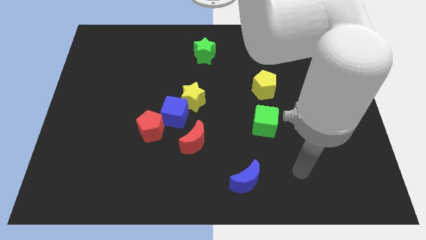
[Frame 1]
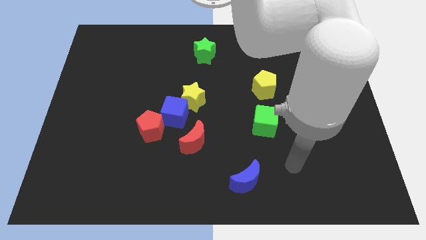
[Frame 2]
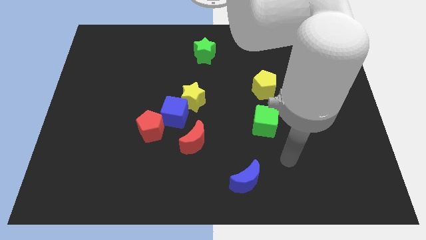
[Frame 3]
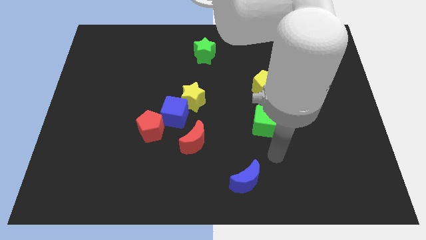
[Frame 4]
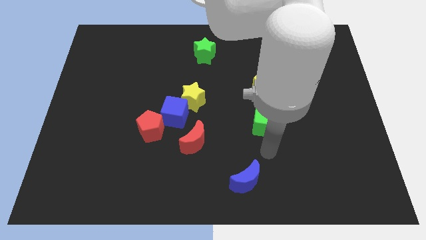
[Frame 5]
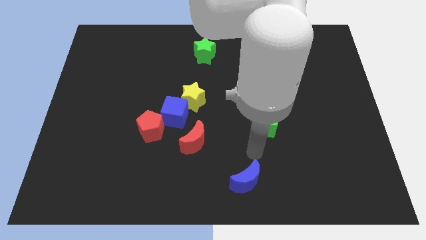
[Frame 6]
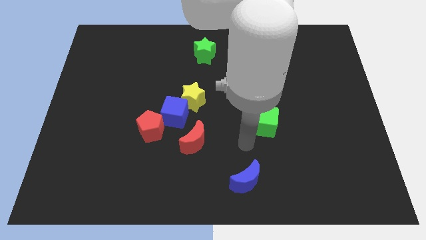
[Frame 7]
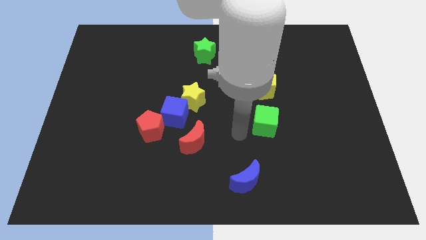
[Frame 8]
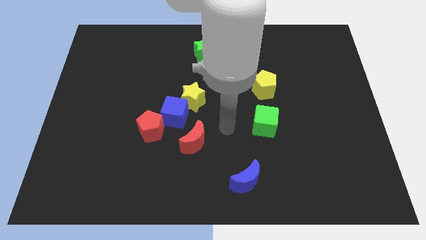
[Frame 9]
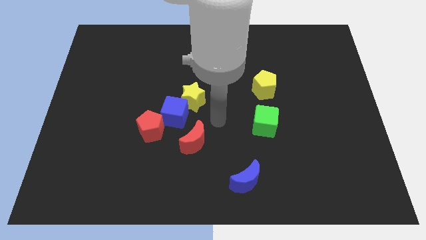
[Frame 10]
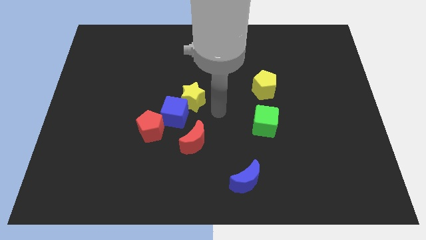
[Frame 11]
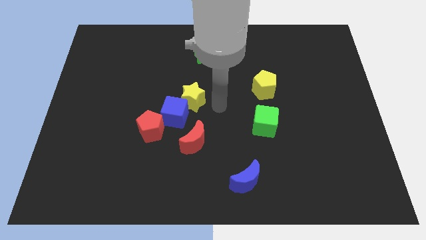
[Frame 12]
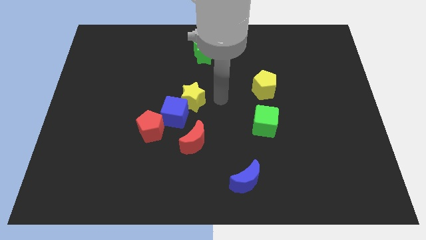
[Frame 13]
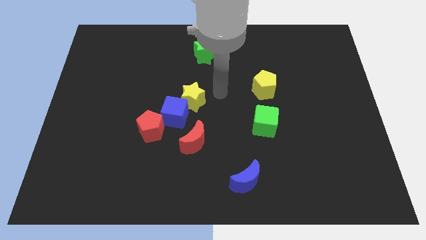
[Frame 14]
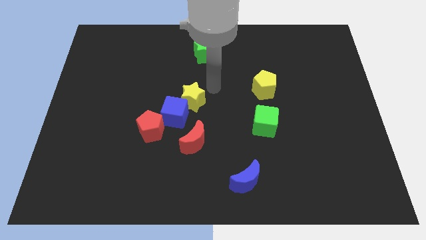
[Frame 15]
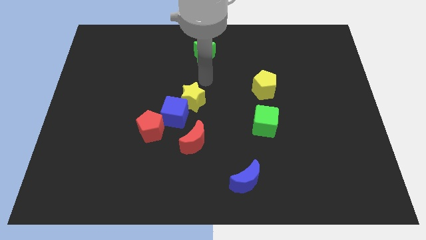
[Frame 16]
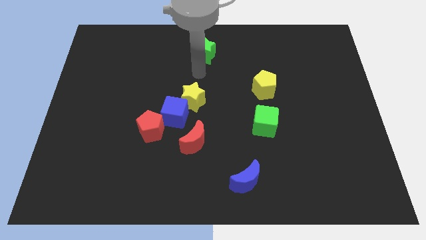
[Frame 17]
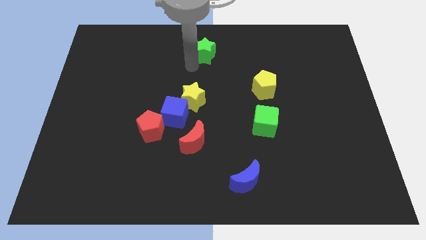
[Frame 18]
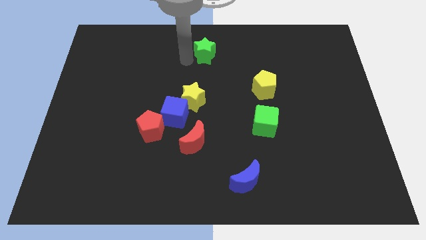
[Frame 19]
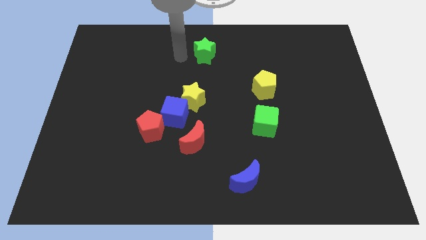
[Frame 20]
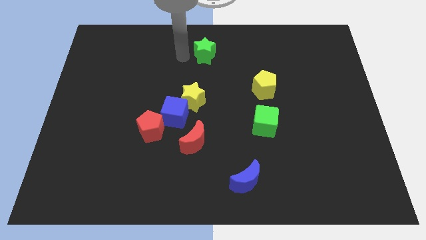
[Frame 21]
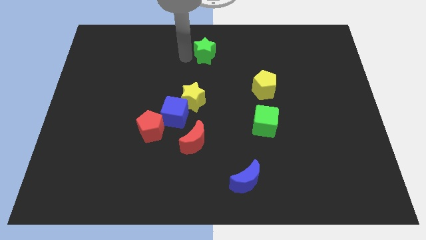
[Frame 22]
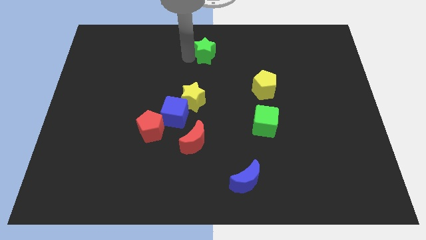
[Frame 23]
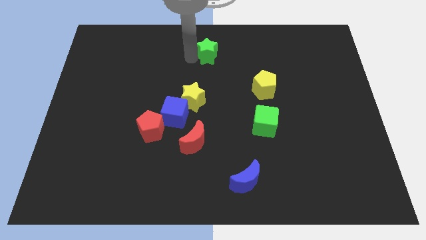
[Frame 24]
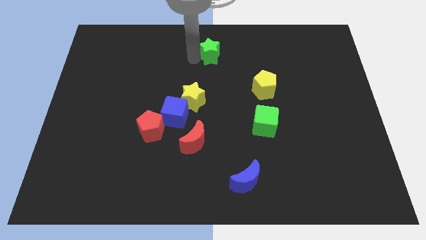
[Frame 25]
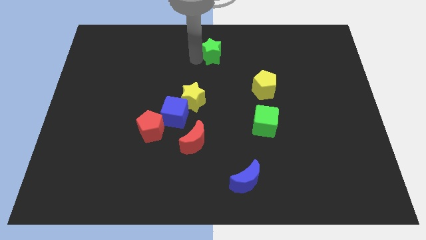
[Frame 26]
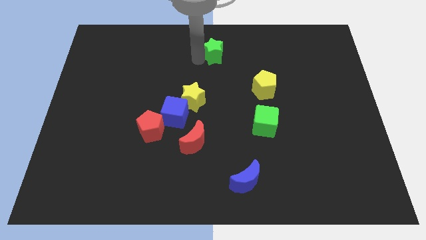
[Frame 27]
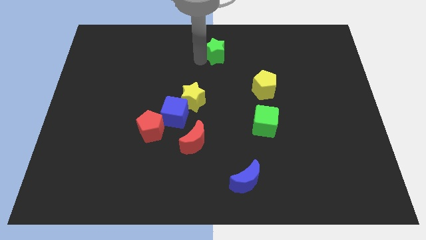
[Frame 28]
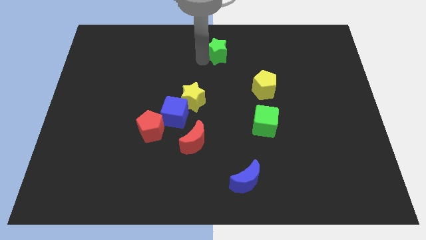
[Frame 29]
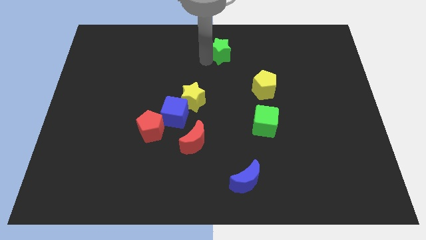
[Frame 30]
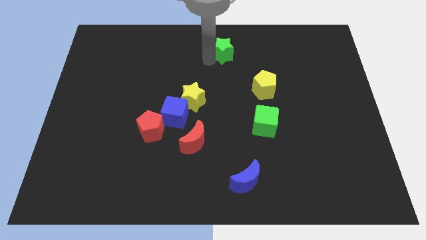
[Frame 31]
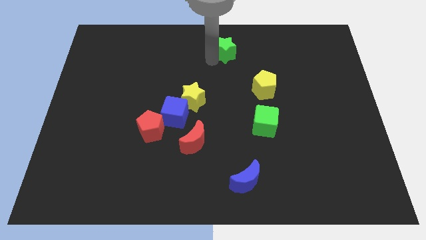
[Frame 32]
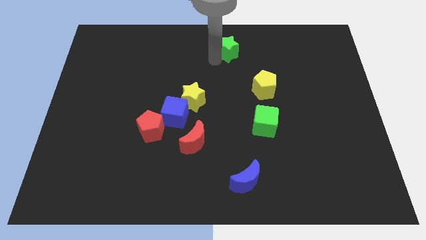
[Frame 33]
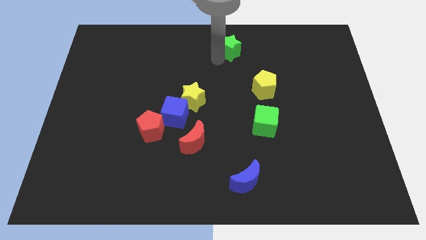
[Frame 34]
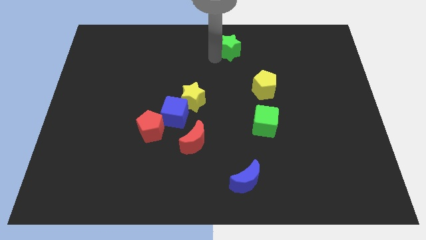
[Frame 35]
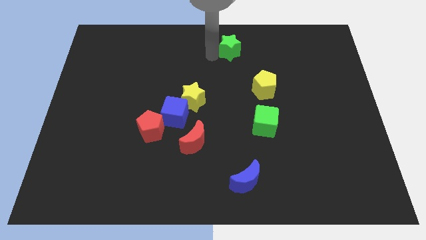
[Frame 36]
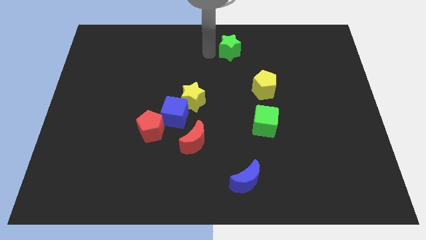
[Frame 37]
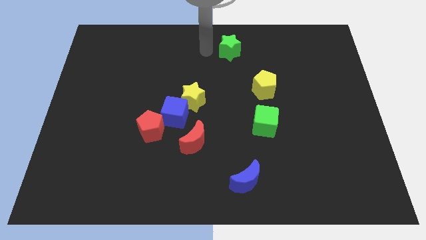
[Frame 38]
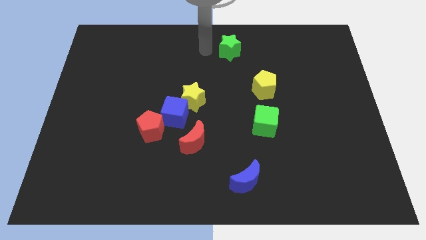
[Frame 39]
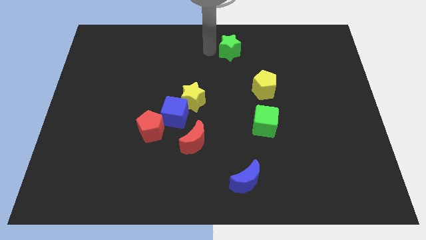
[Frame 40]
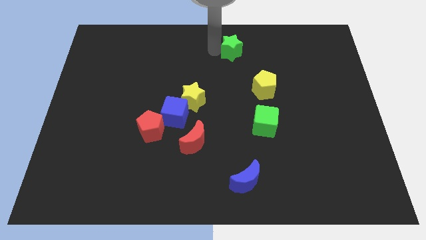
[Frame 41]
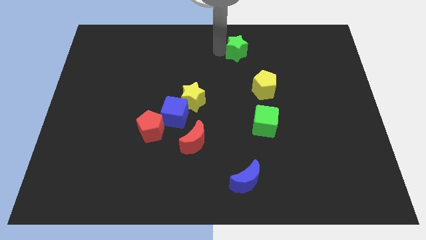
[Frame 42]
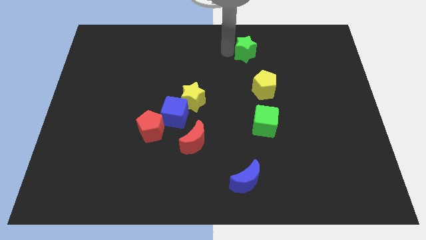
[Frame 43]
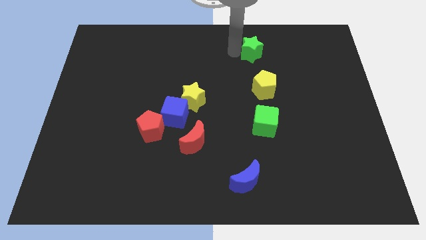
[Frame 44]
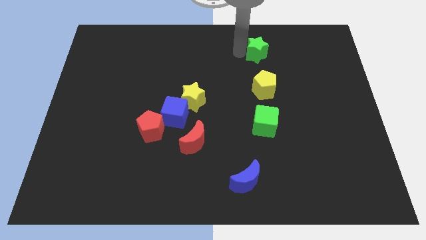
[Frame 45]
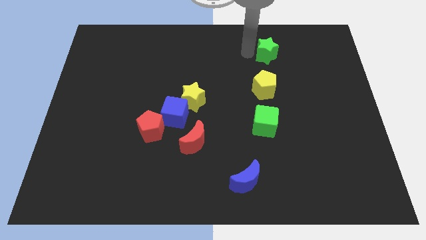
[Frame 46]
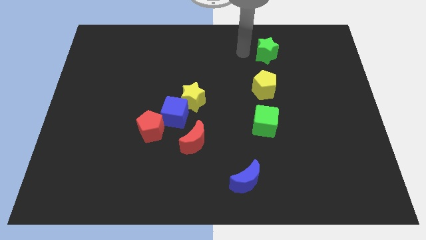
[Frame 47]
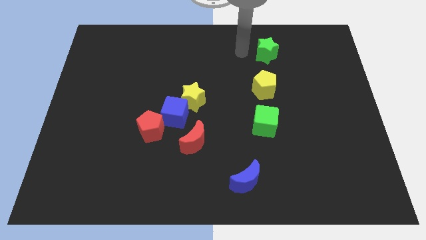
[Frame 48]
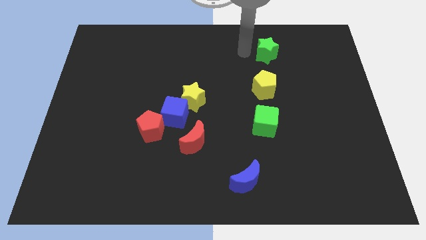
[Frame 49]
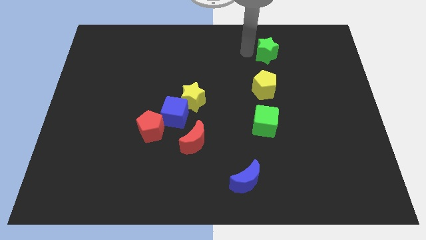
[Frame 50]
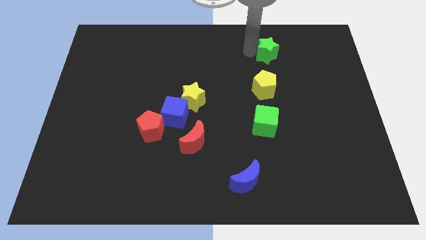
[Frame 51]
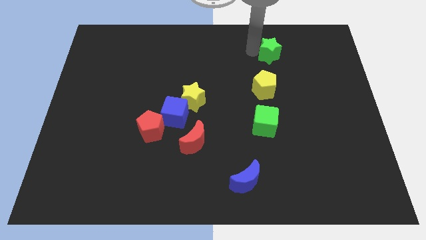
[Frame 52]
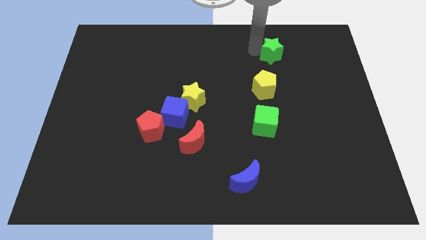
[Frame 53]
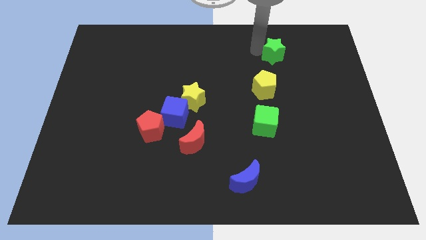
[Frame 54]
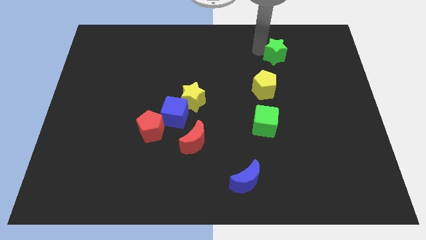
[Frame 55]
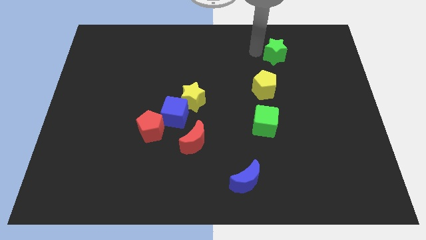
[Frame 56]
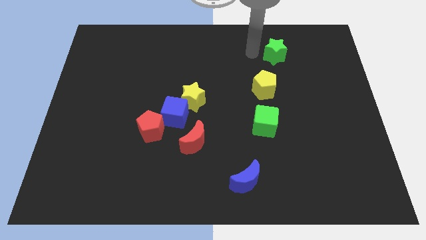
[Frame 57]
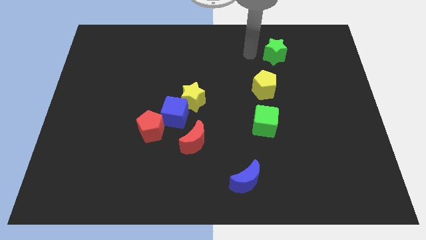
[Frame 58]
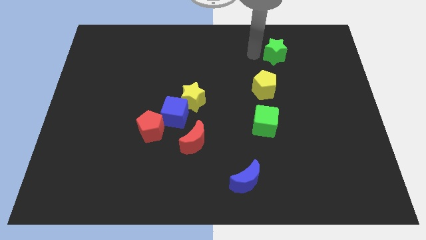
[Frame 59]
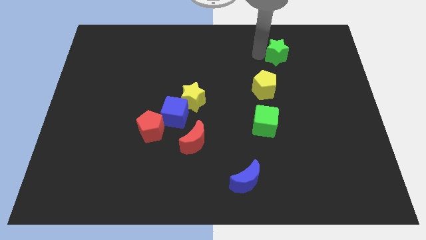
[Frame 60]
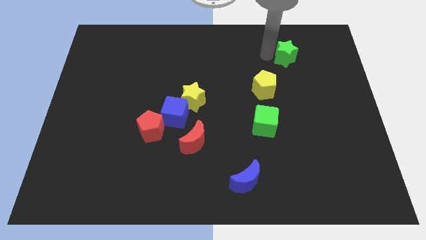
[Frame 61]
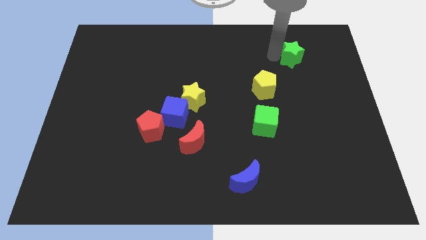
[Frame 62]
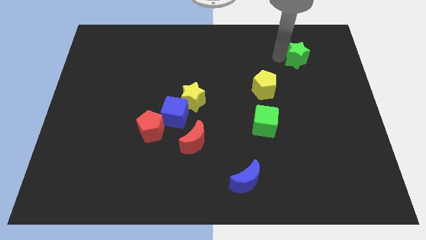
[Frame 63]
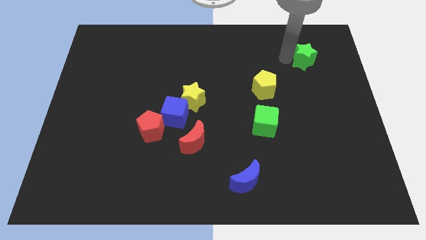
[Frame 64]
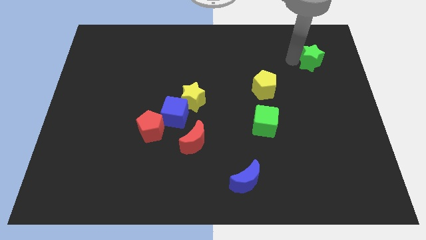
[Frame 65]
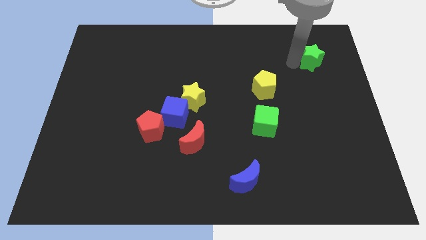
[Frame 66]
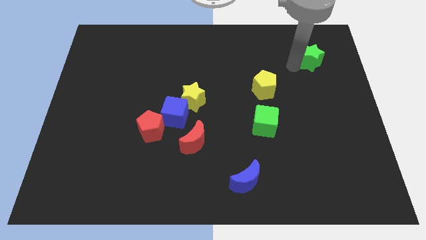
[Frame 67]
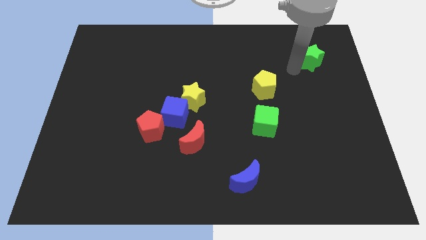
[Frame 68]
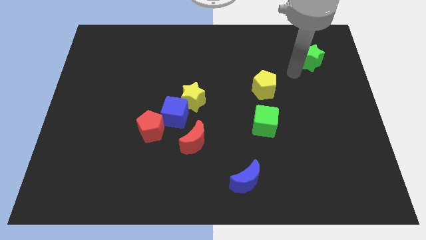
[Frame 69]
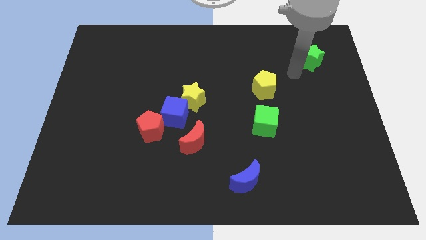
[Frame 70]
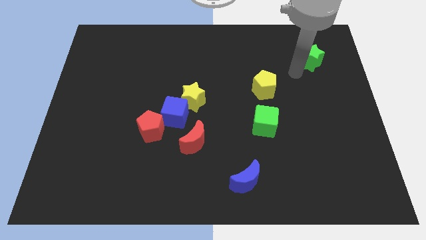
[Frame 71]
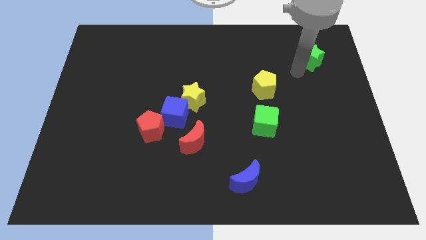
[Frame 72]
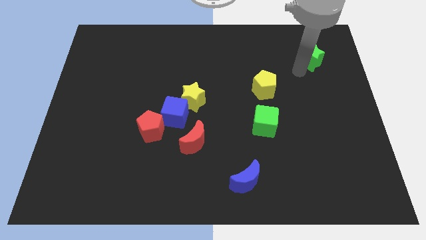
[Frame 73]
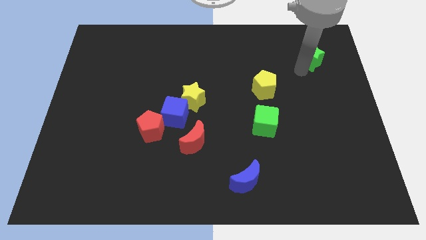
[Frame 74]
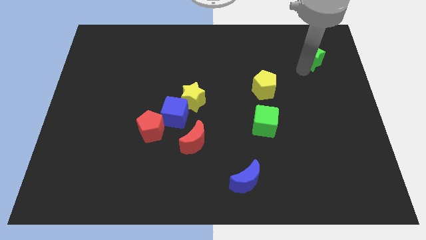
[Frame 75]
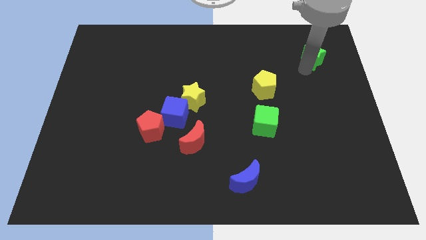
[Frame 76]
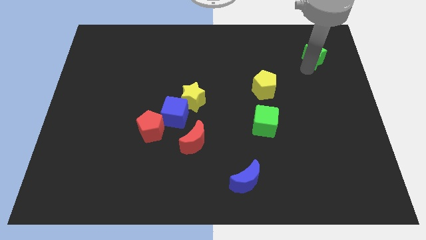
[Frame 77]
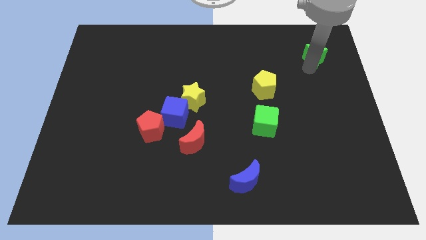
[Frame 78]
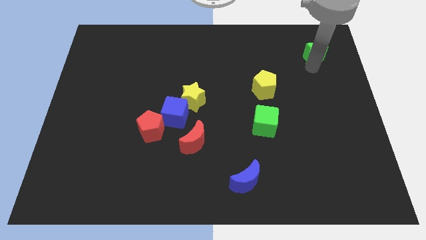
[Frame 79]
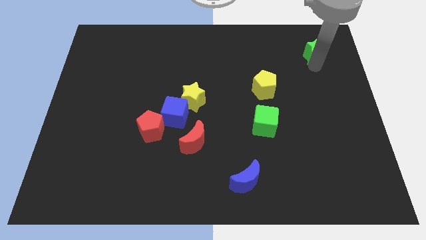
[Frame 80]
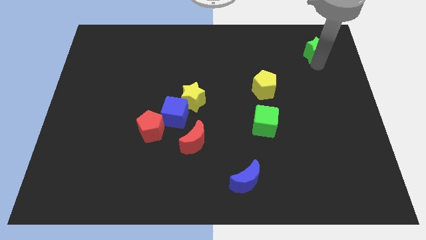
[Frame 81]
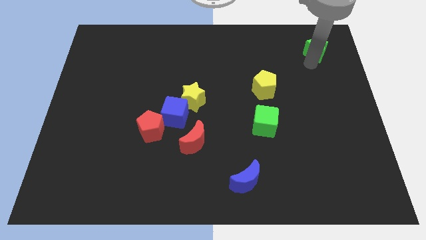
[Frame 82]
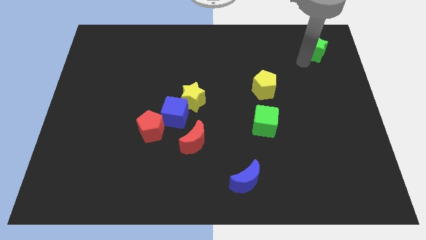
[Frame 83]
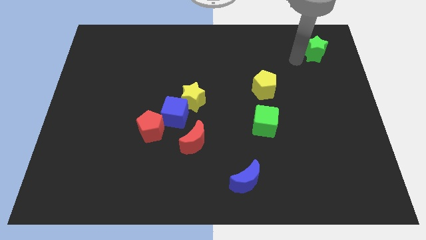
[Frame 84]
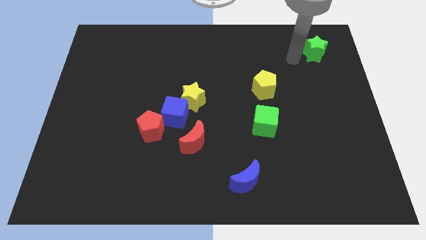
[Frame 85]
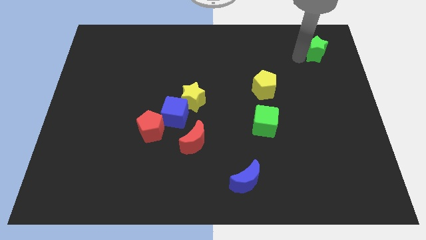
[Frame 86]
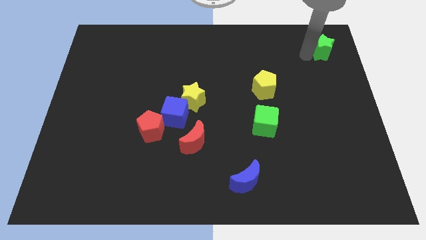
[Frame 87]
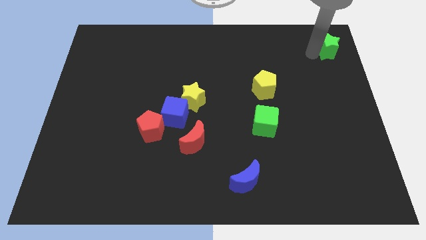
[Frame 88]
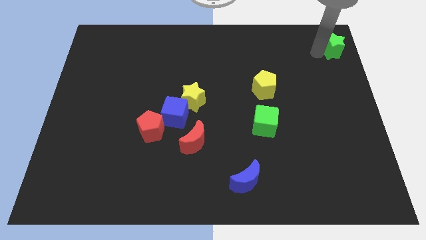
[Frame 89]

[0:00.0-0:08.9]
move the green star to the upper right corner
